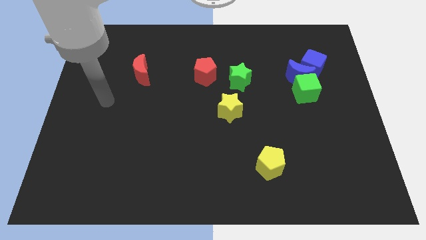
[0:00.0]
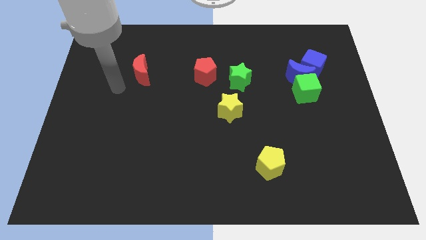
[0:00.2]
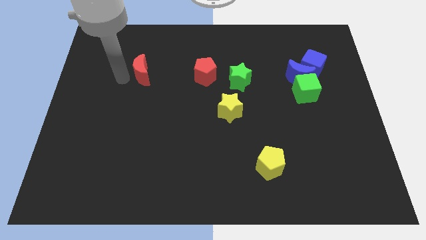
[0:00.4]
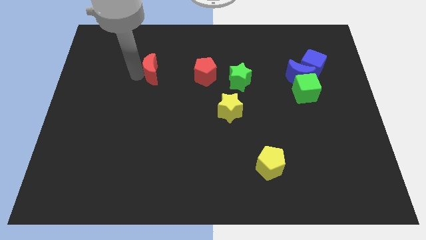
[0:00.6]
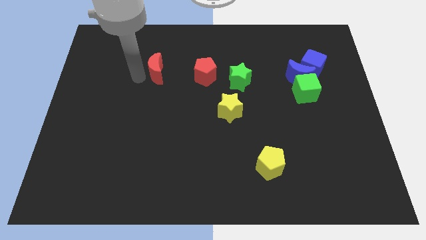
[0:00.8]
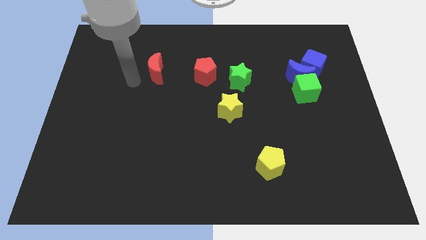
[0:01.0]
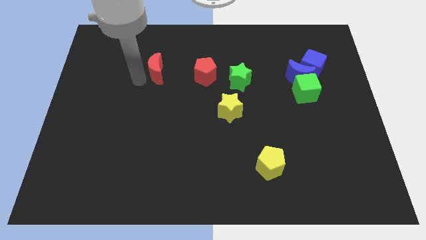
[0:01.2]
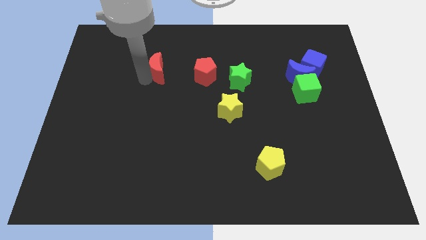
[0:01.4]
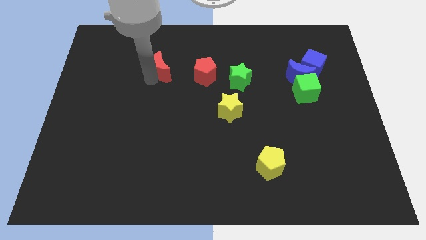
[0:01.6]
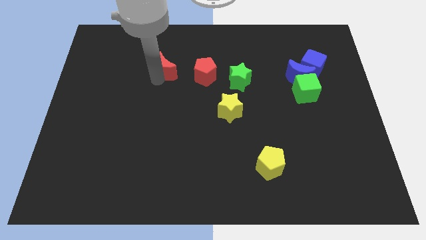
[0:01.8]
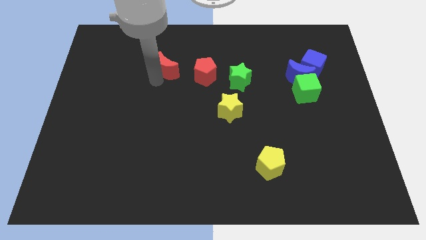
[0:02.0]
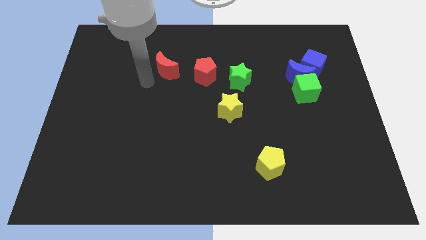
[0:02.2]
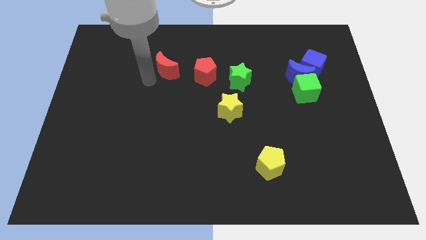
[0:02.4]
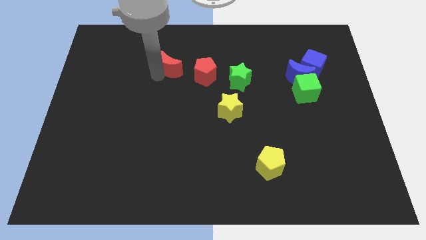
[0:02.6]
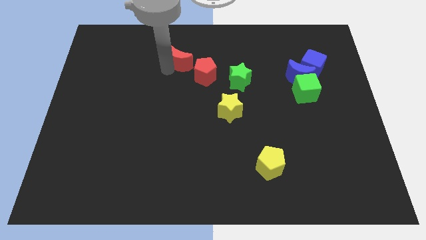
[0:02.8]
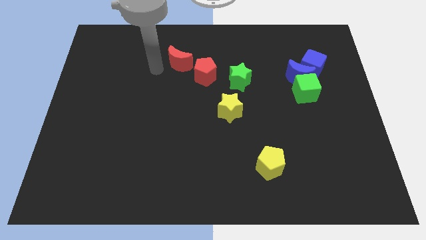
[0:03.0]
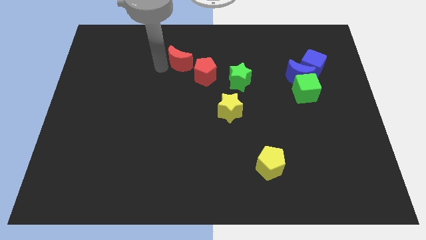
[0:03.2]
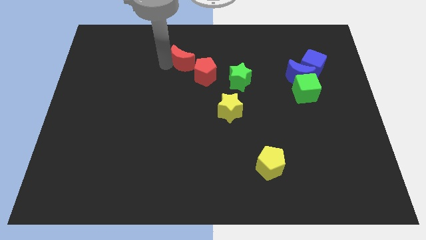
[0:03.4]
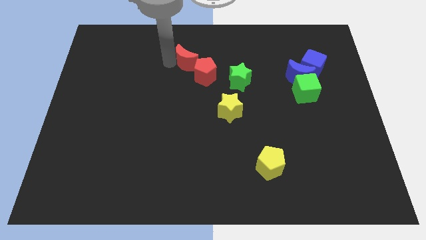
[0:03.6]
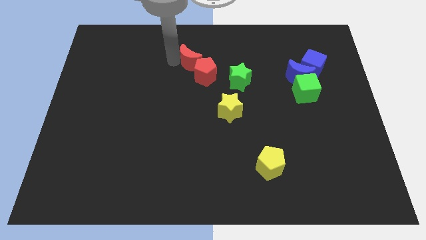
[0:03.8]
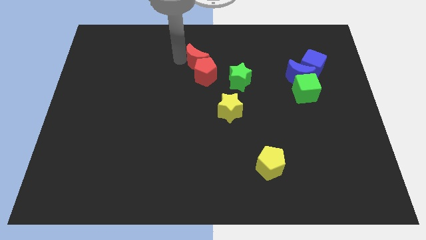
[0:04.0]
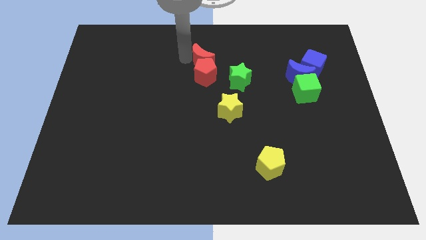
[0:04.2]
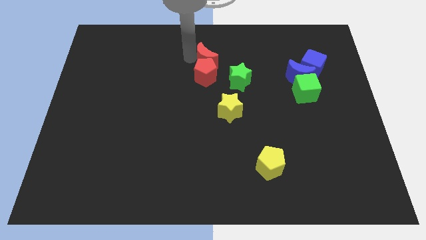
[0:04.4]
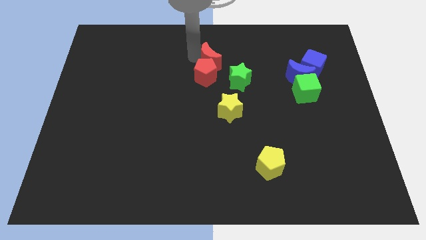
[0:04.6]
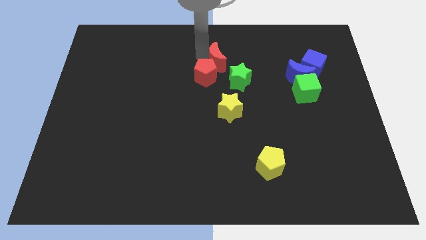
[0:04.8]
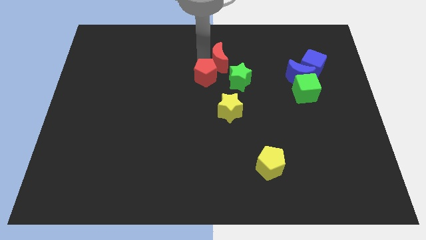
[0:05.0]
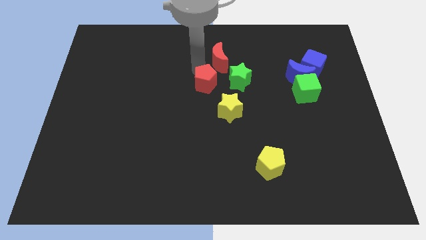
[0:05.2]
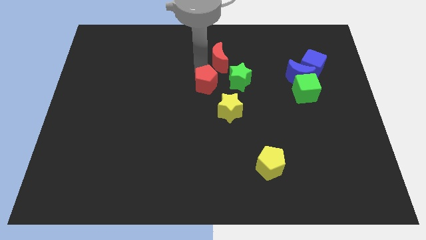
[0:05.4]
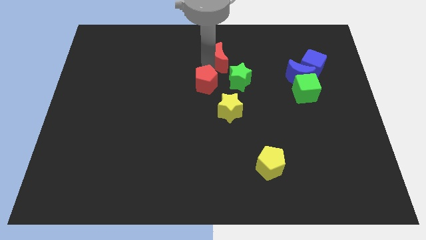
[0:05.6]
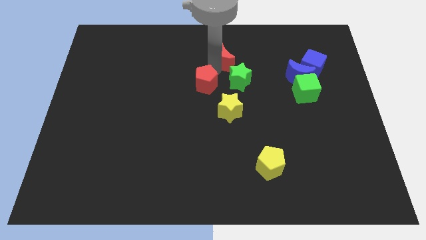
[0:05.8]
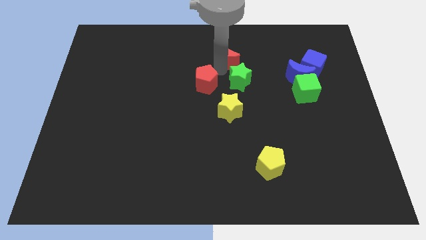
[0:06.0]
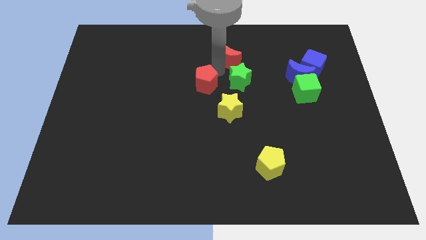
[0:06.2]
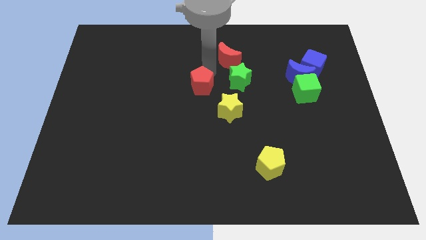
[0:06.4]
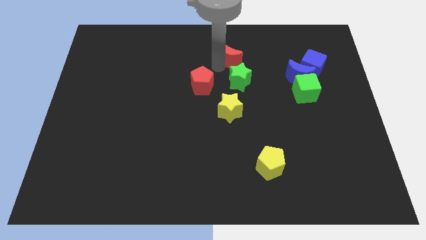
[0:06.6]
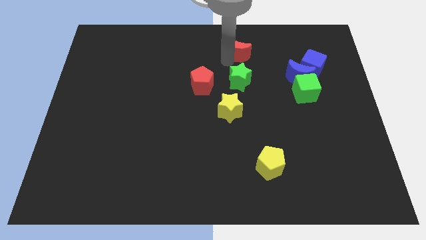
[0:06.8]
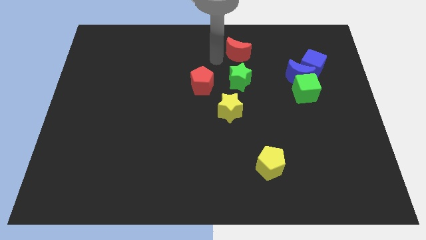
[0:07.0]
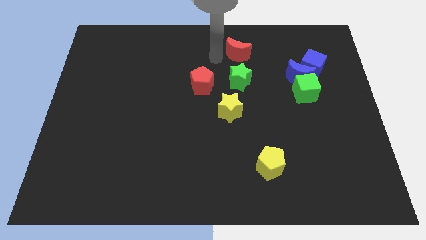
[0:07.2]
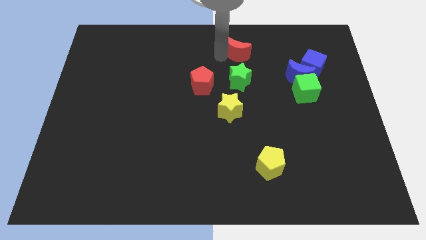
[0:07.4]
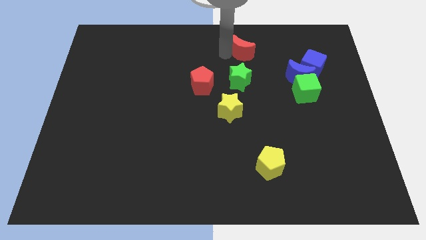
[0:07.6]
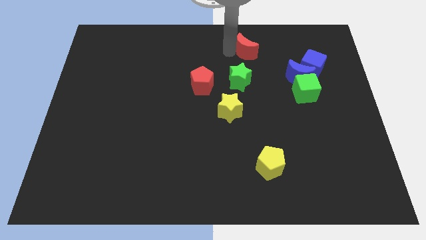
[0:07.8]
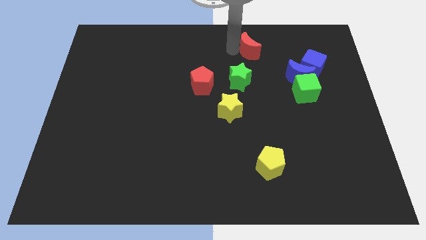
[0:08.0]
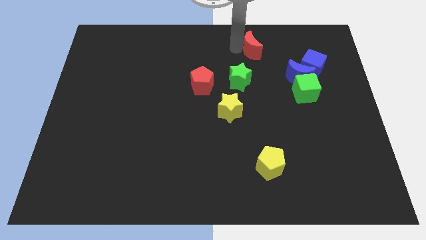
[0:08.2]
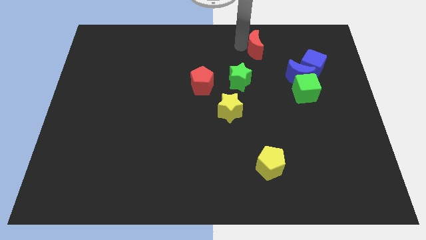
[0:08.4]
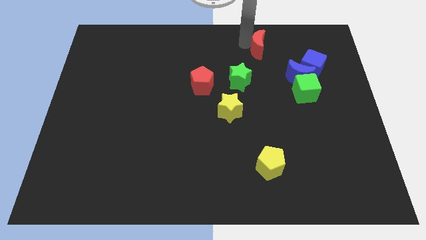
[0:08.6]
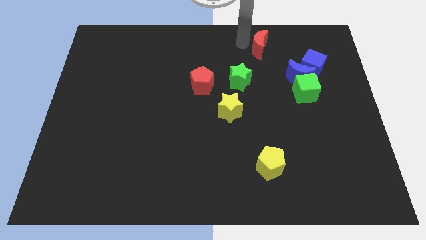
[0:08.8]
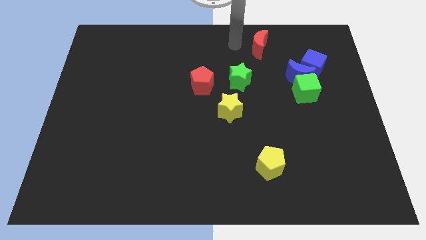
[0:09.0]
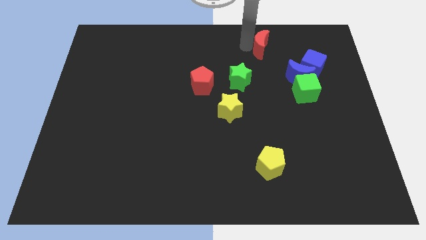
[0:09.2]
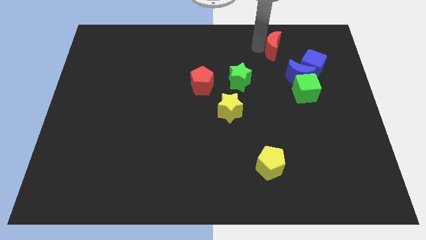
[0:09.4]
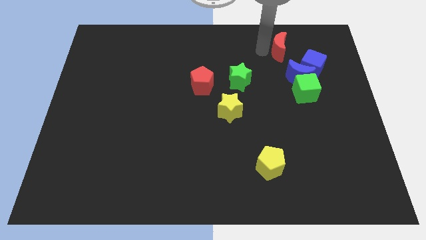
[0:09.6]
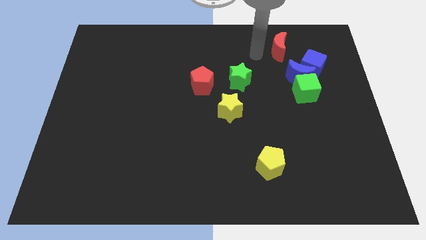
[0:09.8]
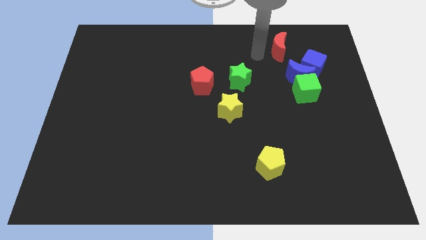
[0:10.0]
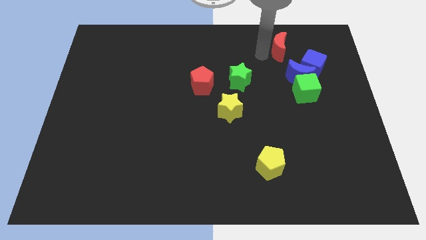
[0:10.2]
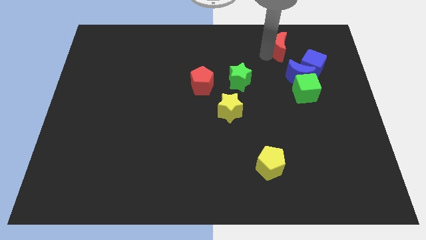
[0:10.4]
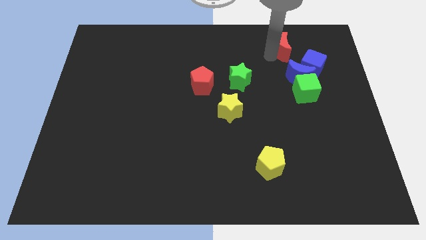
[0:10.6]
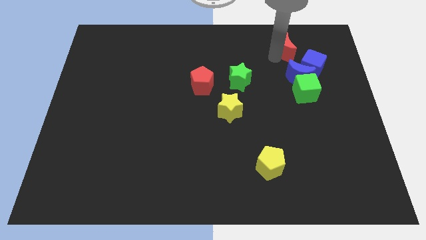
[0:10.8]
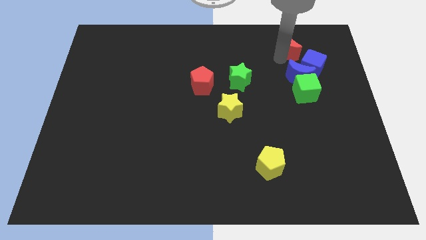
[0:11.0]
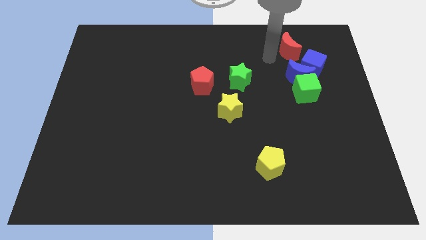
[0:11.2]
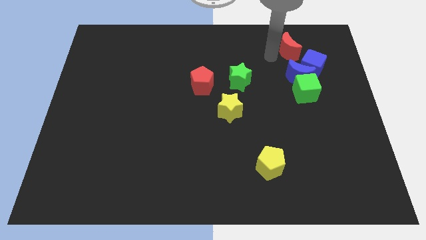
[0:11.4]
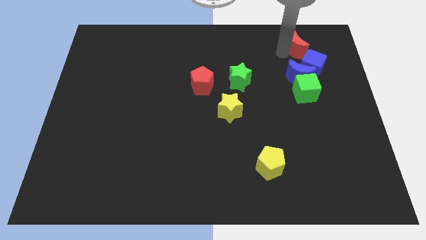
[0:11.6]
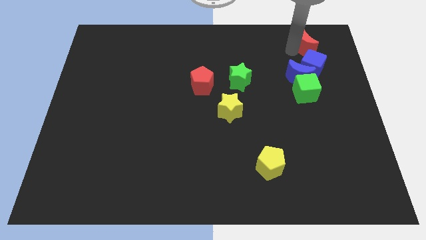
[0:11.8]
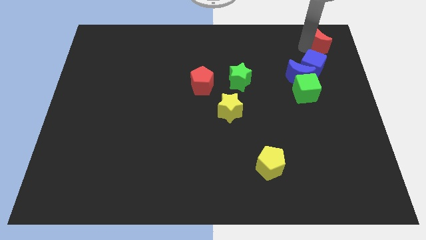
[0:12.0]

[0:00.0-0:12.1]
move the red moon to the upper right corner

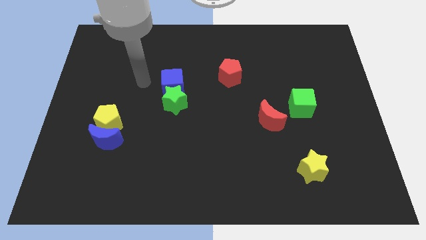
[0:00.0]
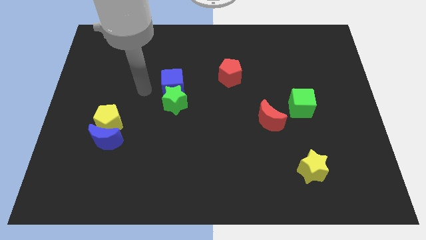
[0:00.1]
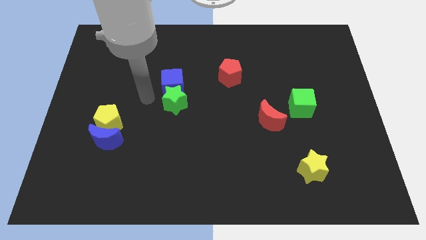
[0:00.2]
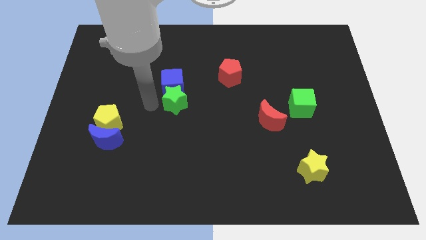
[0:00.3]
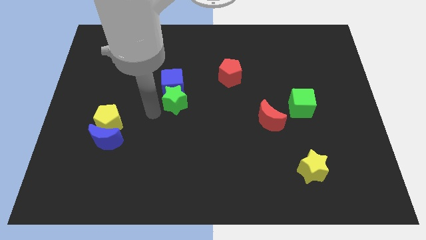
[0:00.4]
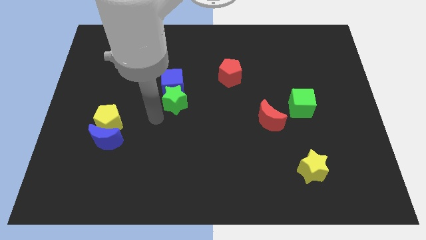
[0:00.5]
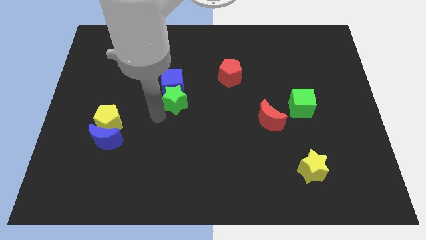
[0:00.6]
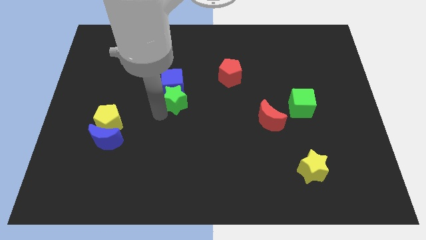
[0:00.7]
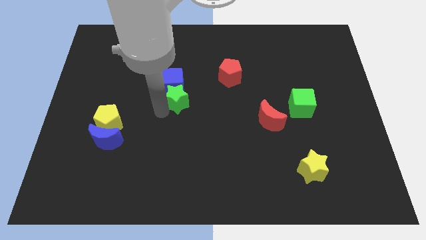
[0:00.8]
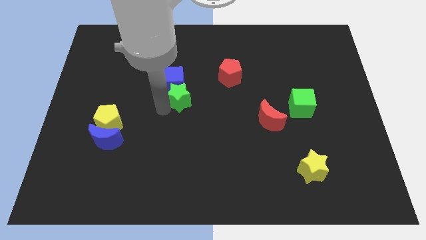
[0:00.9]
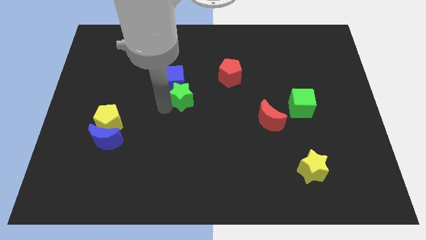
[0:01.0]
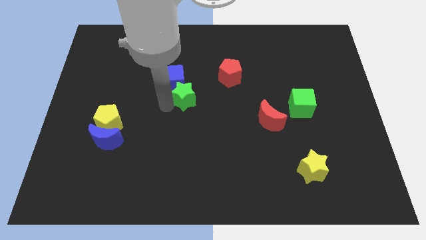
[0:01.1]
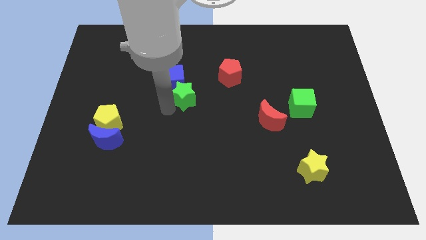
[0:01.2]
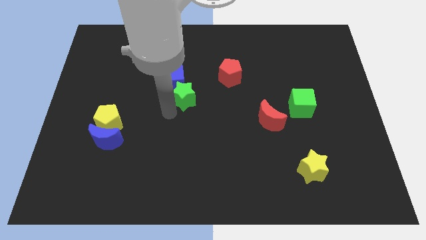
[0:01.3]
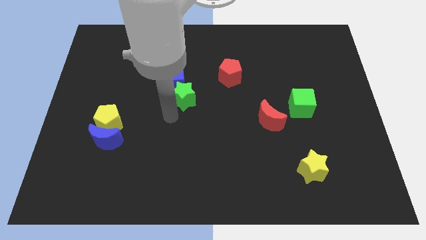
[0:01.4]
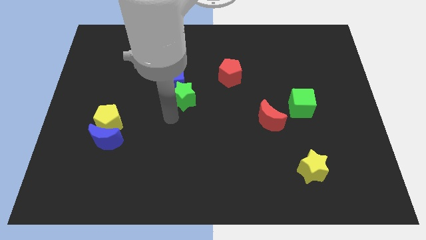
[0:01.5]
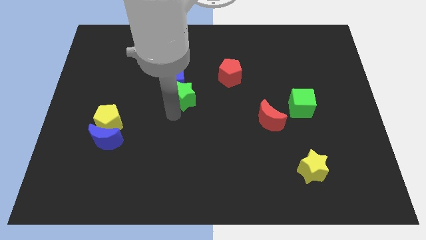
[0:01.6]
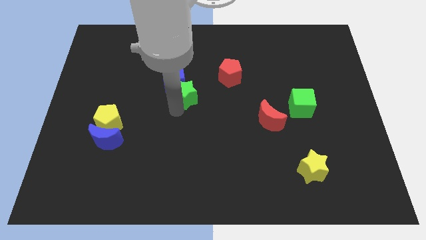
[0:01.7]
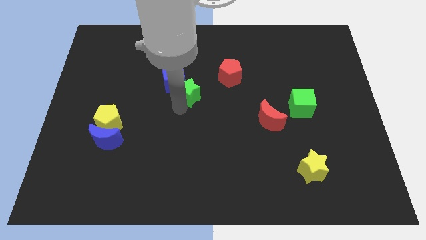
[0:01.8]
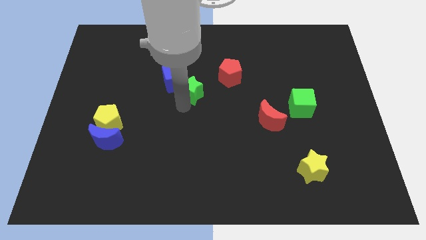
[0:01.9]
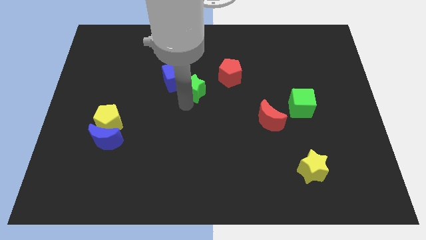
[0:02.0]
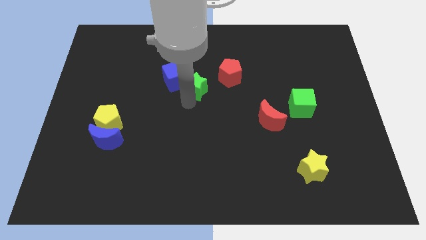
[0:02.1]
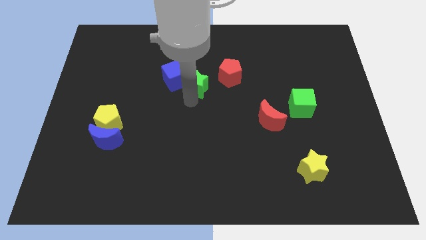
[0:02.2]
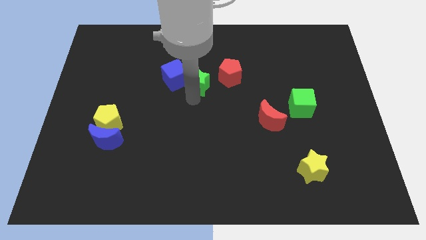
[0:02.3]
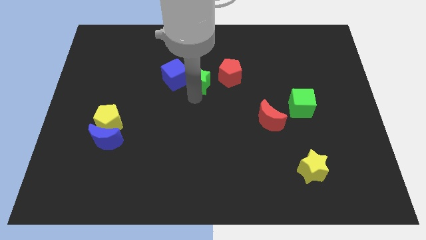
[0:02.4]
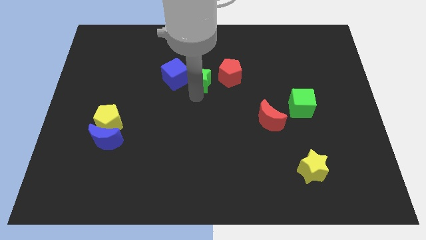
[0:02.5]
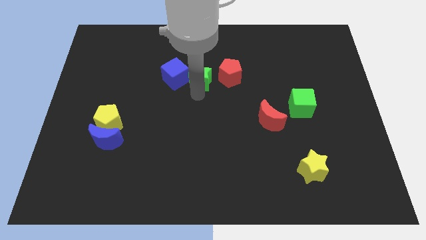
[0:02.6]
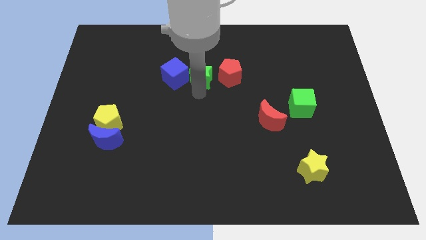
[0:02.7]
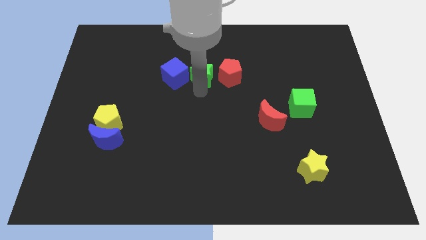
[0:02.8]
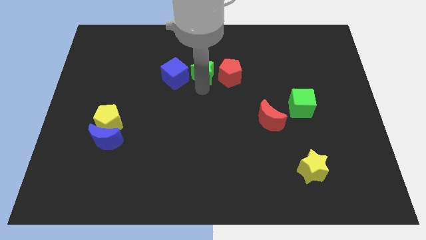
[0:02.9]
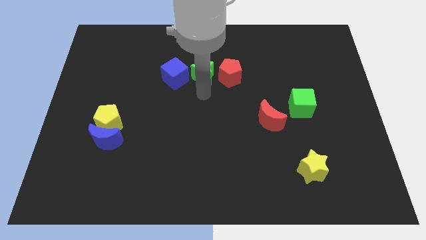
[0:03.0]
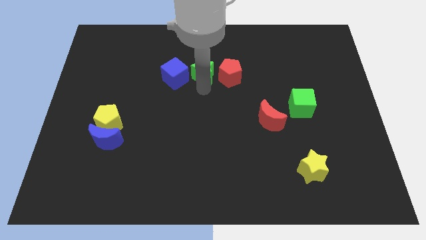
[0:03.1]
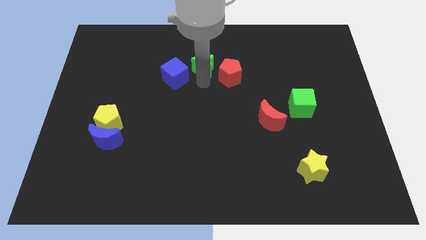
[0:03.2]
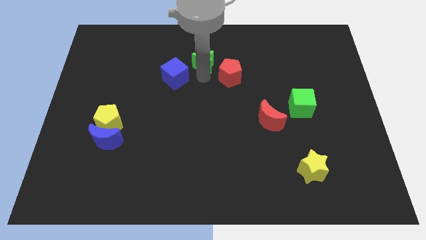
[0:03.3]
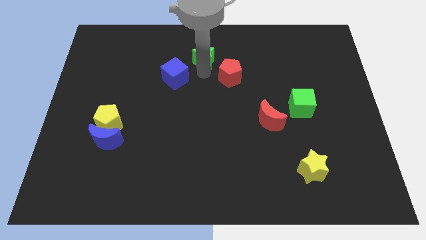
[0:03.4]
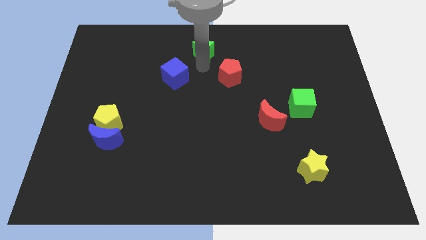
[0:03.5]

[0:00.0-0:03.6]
move the green star to the top side
